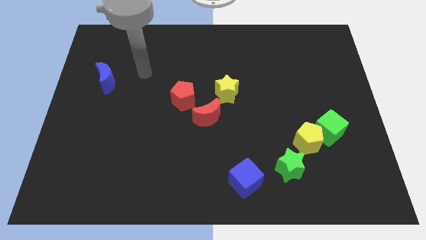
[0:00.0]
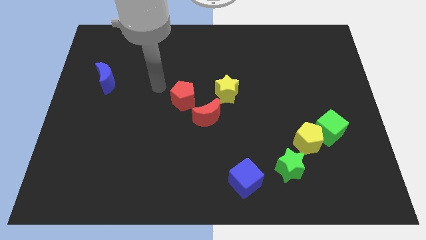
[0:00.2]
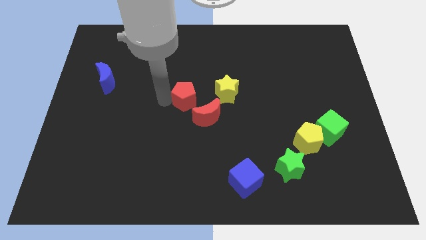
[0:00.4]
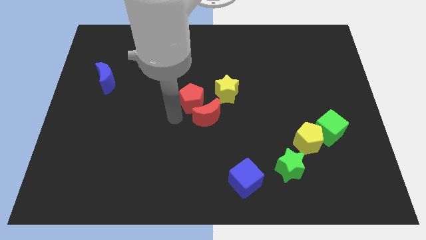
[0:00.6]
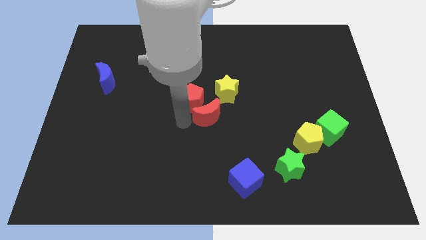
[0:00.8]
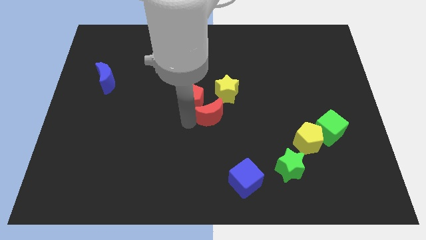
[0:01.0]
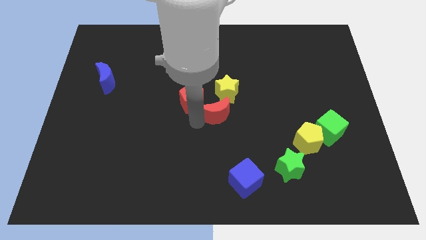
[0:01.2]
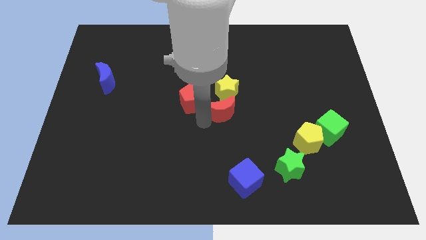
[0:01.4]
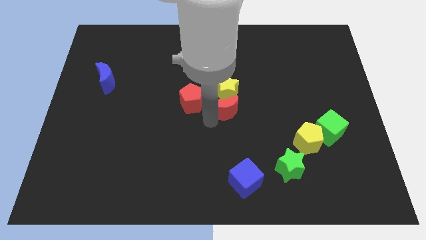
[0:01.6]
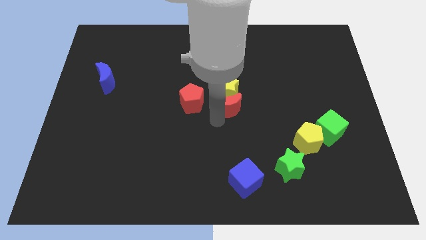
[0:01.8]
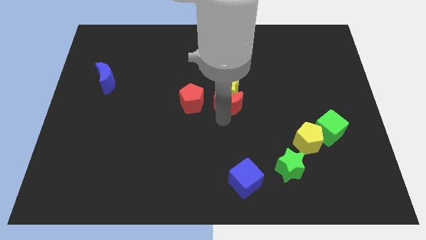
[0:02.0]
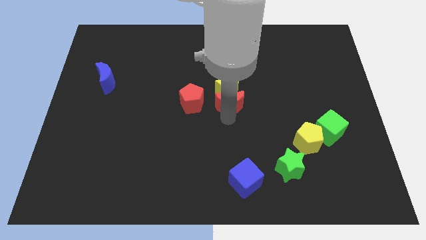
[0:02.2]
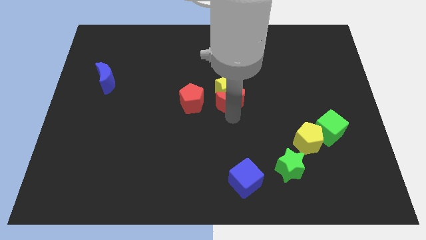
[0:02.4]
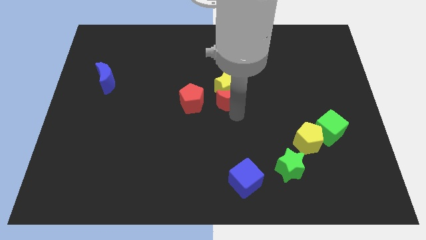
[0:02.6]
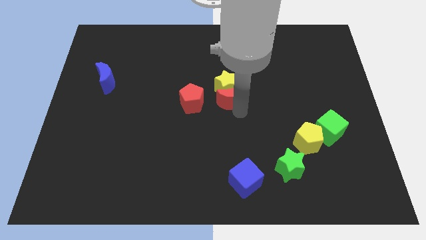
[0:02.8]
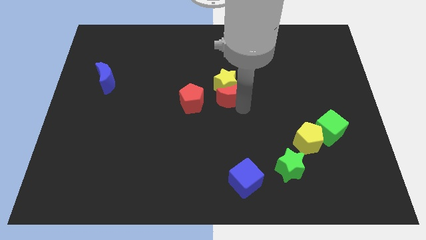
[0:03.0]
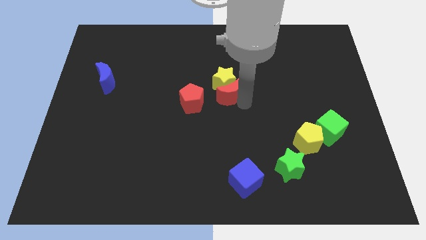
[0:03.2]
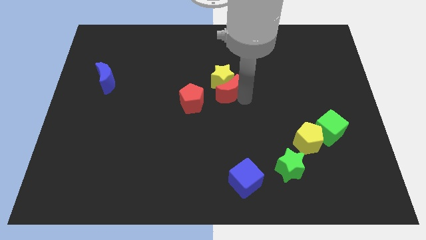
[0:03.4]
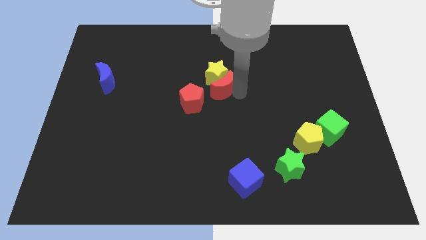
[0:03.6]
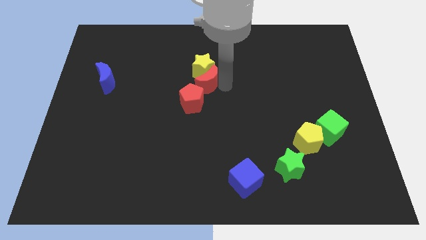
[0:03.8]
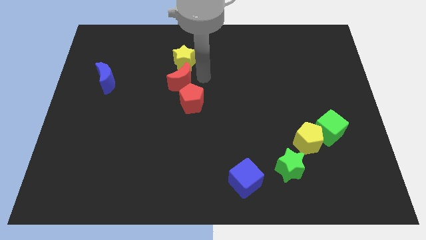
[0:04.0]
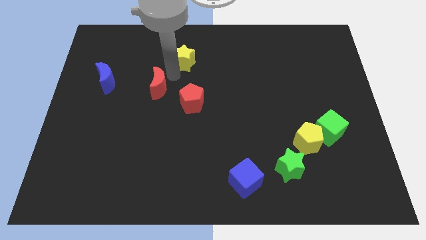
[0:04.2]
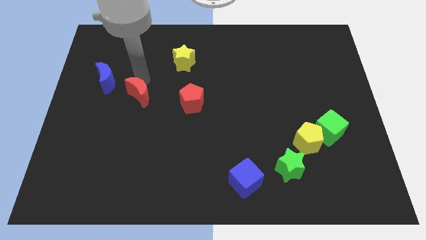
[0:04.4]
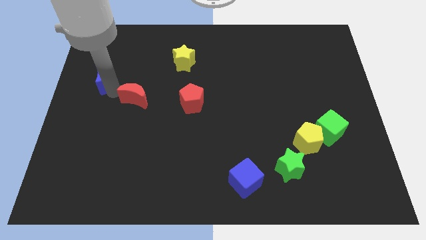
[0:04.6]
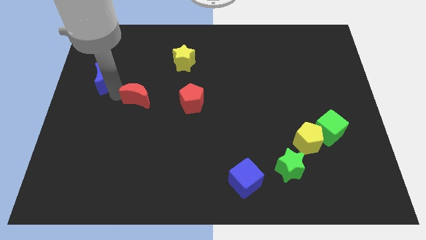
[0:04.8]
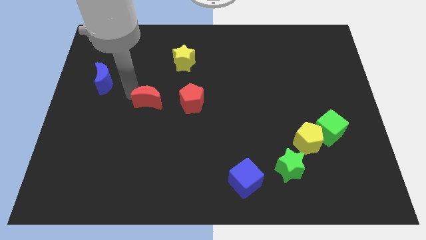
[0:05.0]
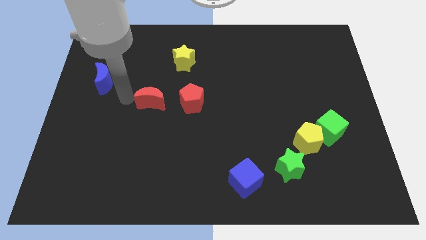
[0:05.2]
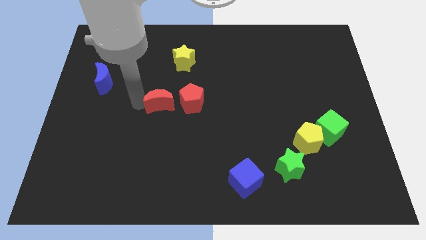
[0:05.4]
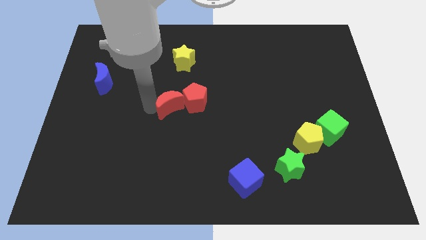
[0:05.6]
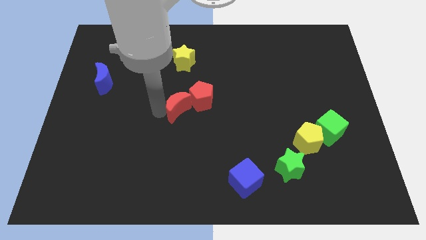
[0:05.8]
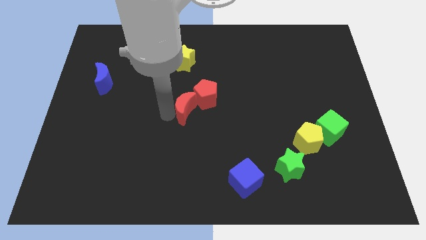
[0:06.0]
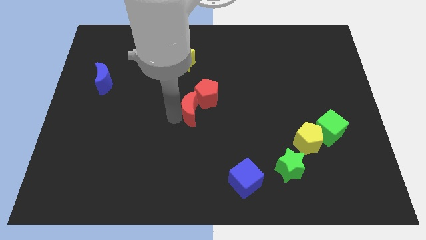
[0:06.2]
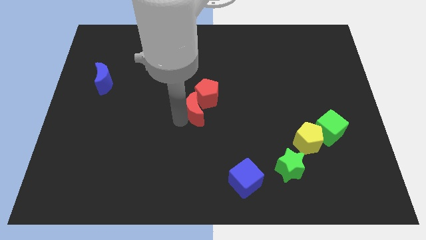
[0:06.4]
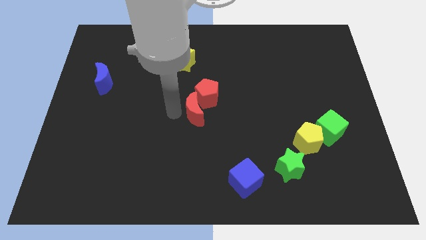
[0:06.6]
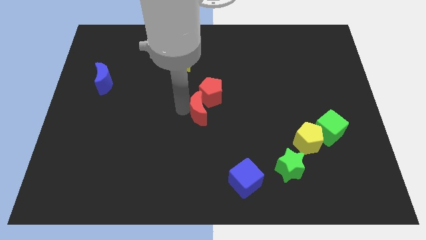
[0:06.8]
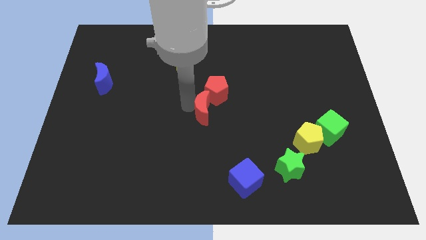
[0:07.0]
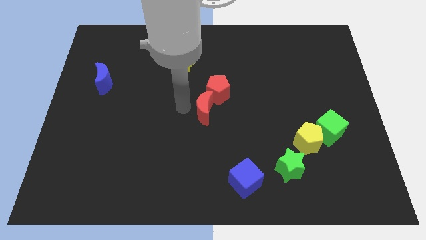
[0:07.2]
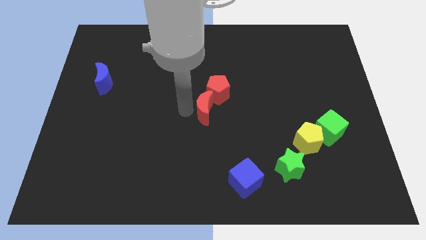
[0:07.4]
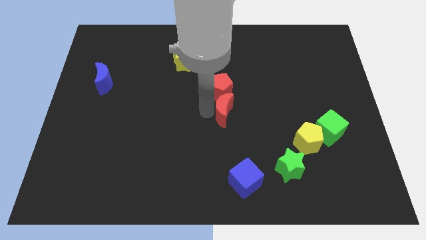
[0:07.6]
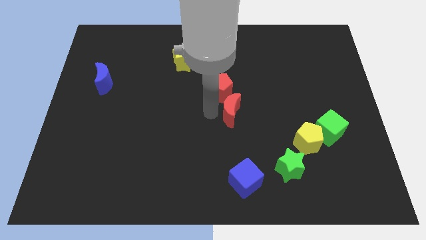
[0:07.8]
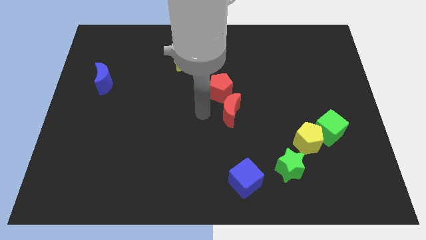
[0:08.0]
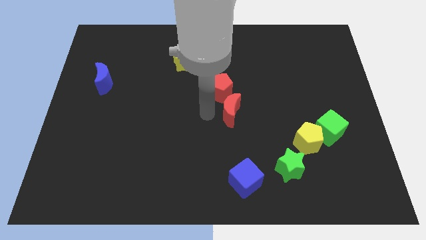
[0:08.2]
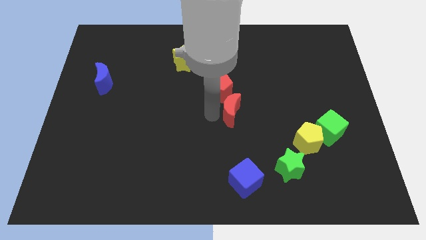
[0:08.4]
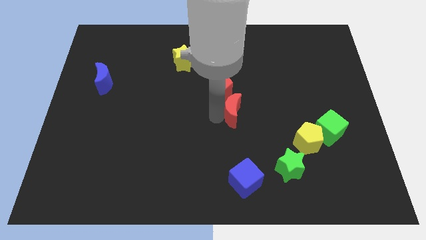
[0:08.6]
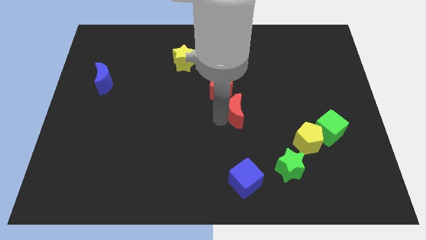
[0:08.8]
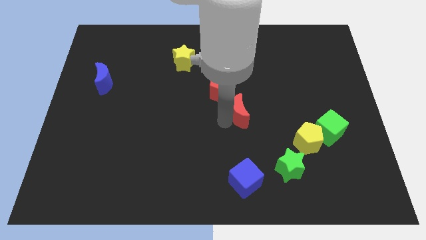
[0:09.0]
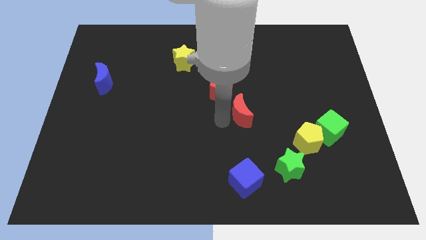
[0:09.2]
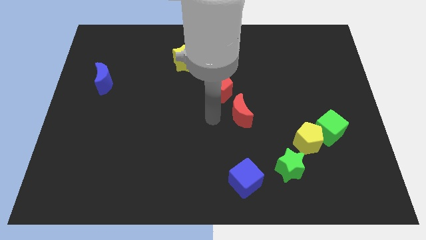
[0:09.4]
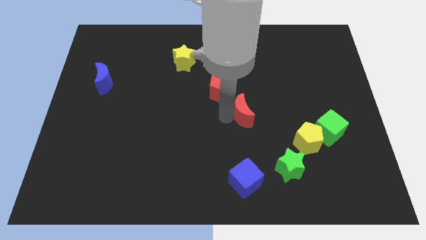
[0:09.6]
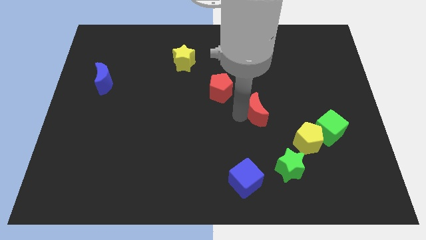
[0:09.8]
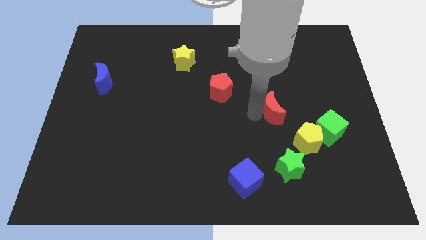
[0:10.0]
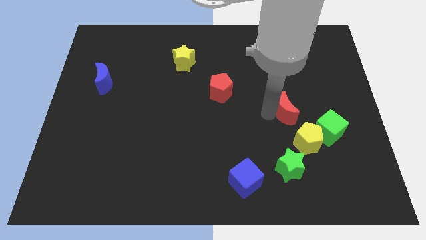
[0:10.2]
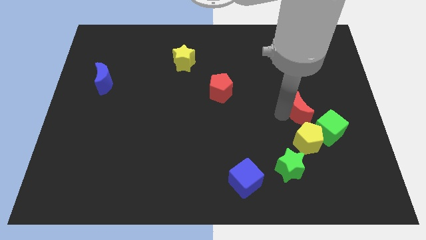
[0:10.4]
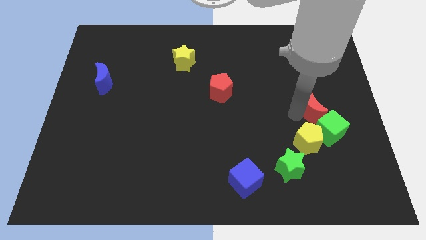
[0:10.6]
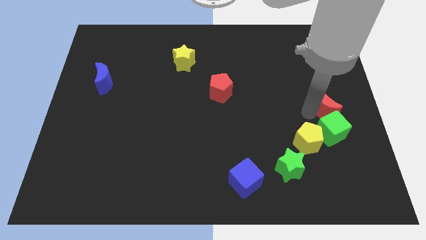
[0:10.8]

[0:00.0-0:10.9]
push the red moon to the right side

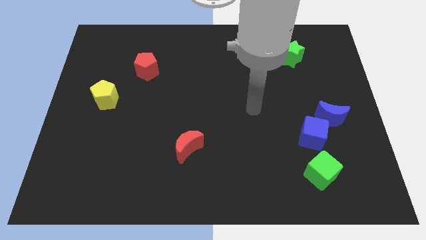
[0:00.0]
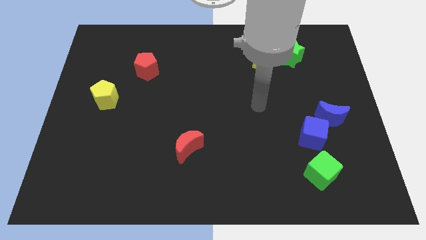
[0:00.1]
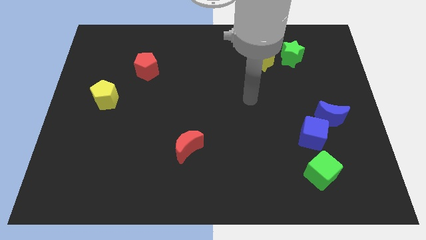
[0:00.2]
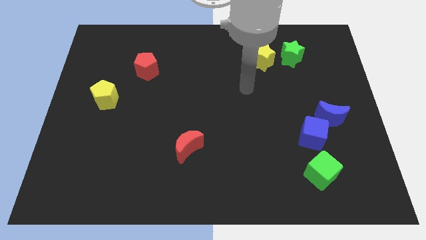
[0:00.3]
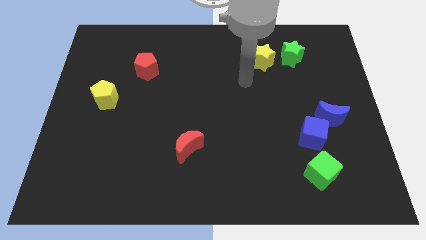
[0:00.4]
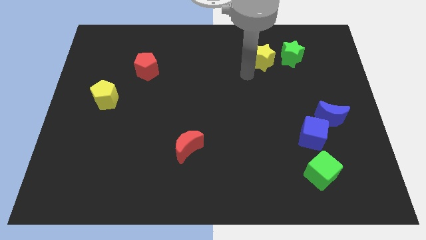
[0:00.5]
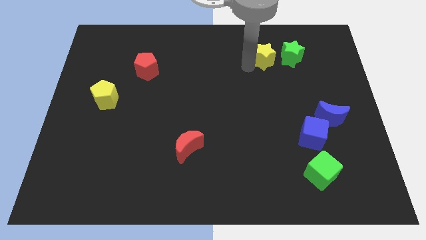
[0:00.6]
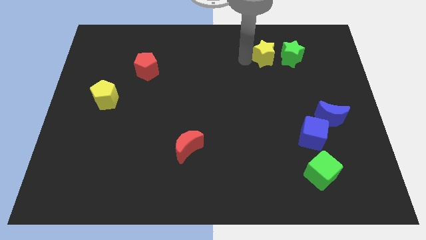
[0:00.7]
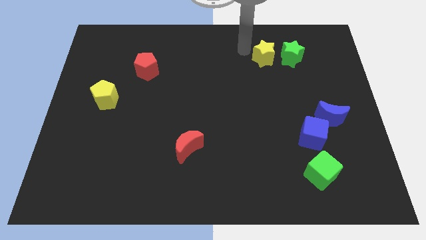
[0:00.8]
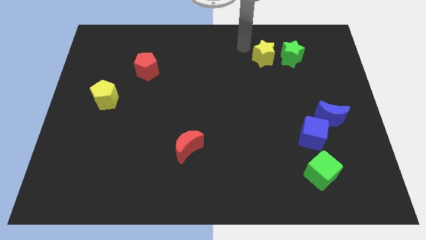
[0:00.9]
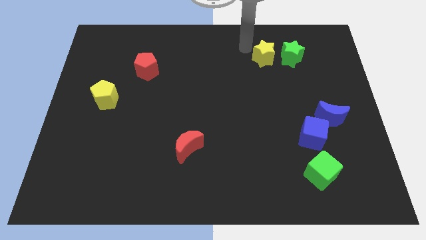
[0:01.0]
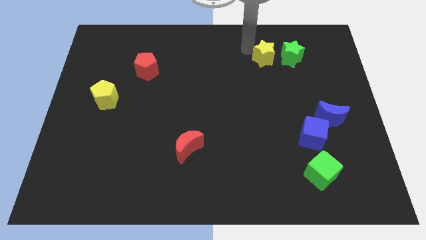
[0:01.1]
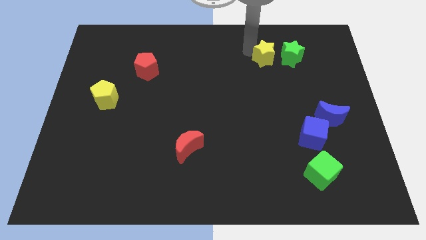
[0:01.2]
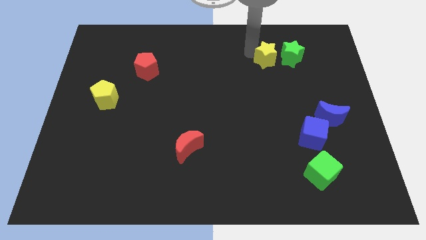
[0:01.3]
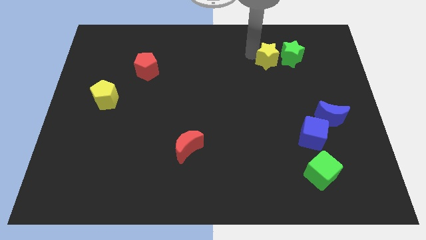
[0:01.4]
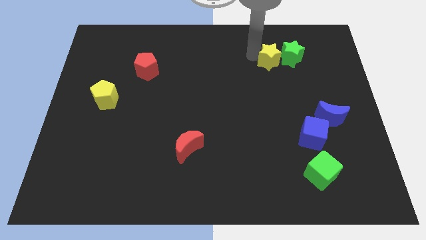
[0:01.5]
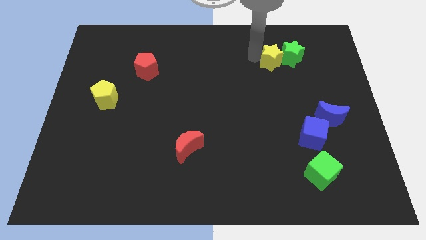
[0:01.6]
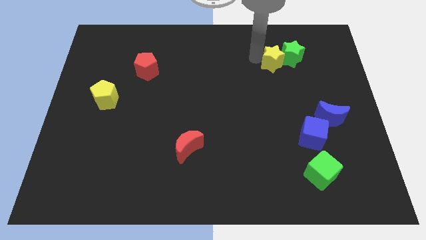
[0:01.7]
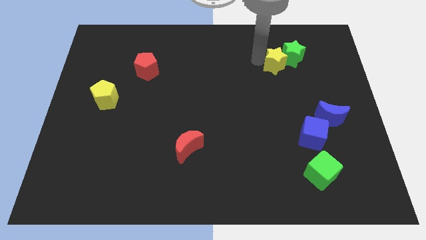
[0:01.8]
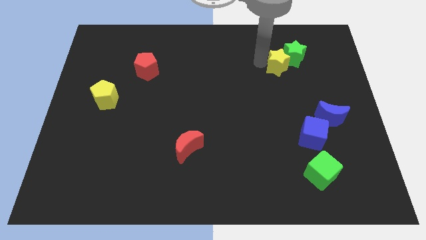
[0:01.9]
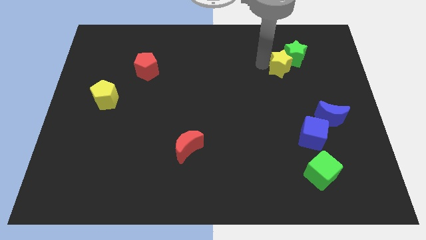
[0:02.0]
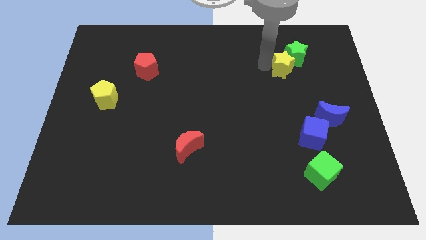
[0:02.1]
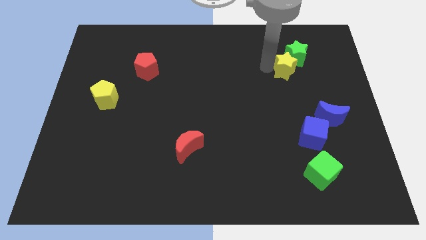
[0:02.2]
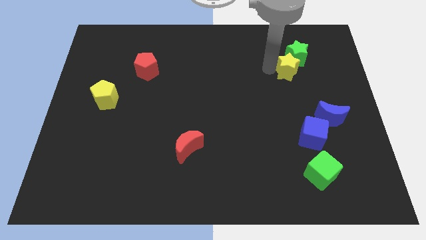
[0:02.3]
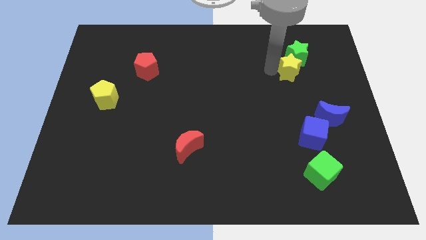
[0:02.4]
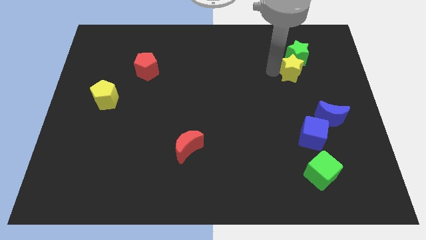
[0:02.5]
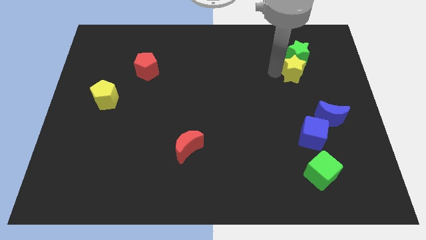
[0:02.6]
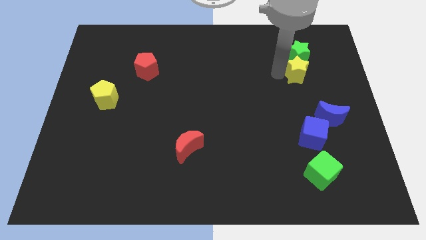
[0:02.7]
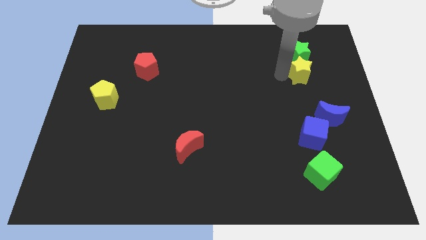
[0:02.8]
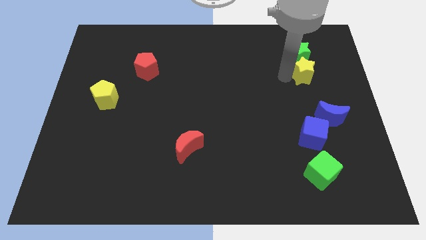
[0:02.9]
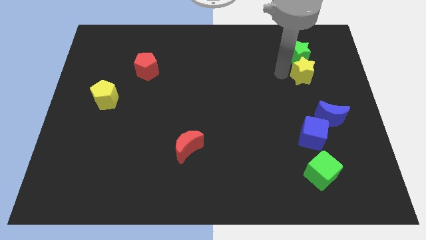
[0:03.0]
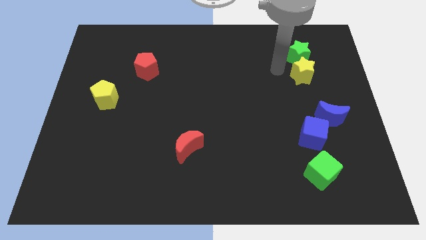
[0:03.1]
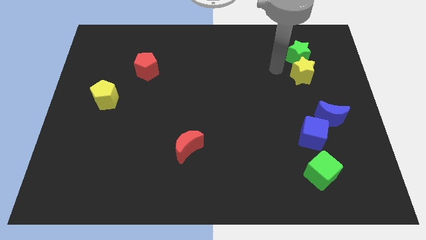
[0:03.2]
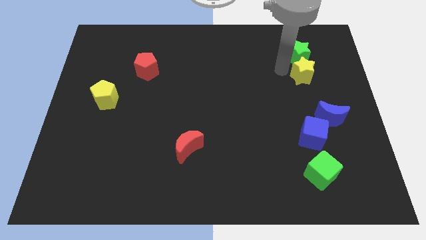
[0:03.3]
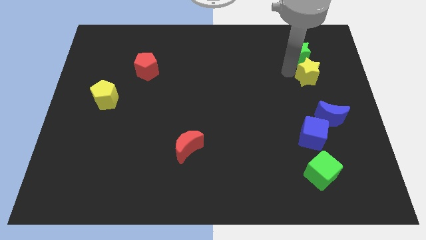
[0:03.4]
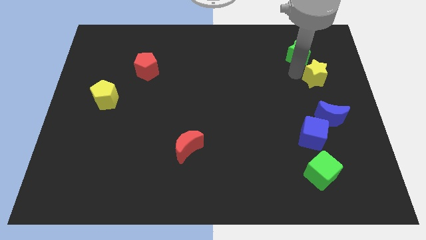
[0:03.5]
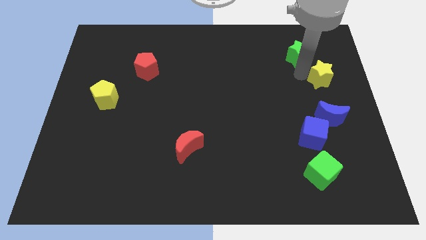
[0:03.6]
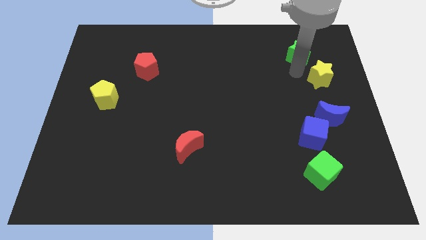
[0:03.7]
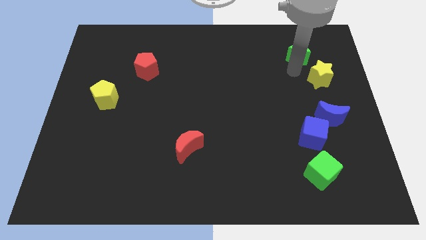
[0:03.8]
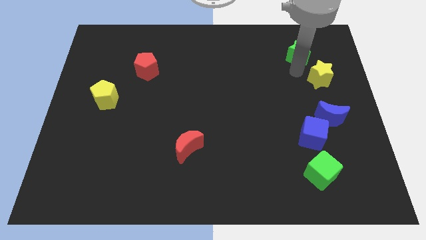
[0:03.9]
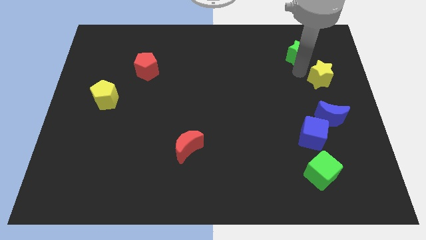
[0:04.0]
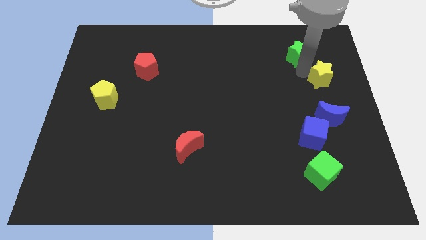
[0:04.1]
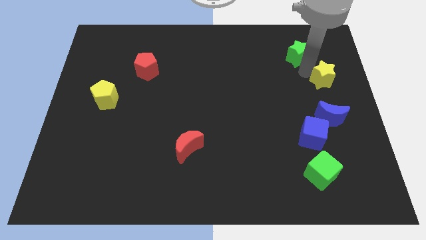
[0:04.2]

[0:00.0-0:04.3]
put the yellow star to the center right
